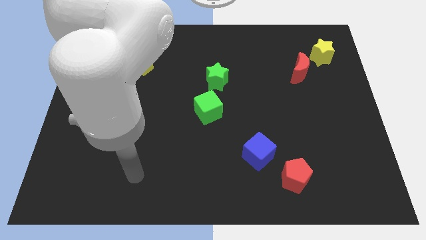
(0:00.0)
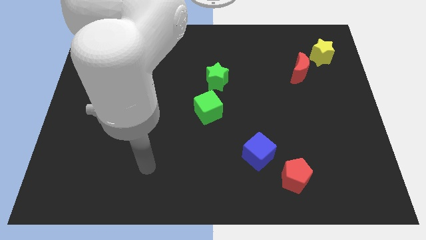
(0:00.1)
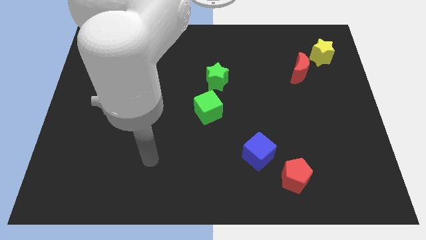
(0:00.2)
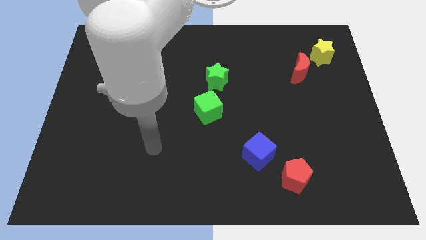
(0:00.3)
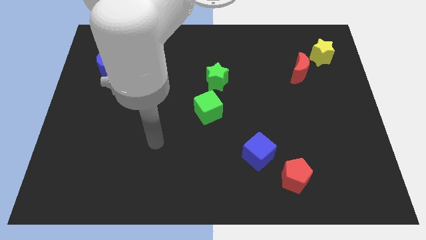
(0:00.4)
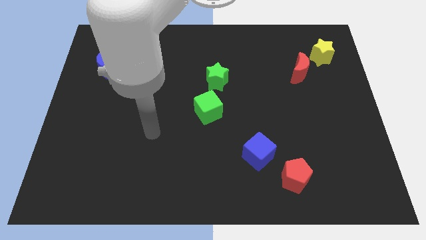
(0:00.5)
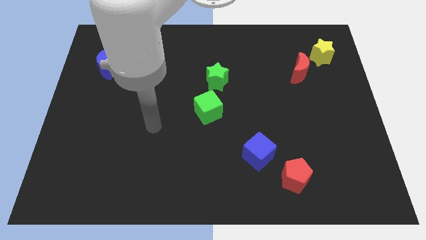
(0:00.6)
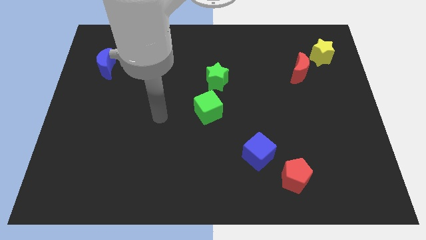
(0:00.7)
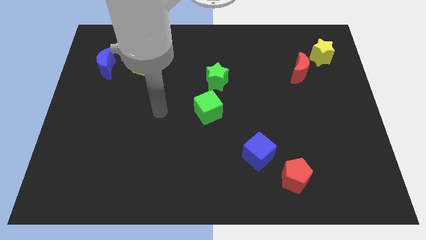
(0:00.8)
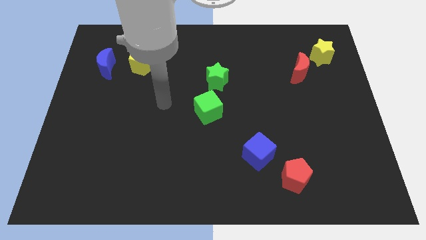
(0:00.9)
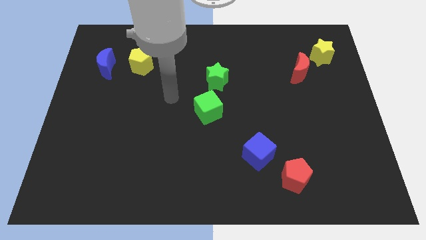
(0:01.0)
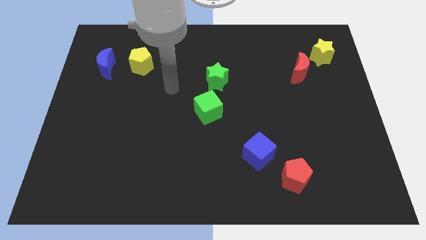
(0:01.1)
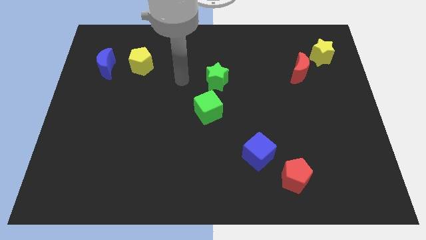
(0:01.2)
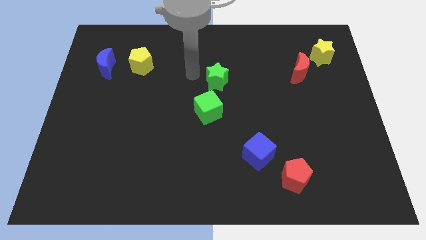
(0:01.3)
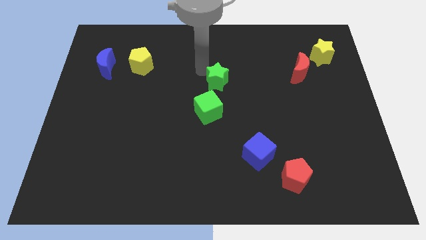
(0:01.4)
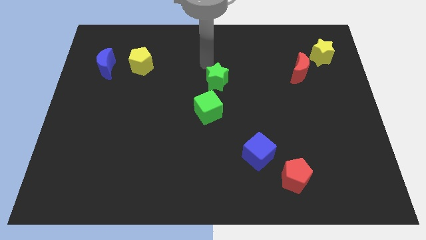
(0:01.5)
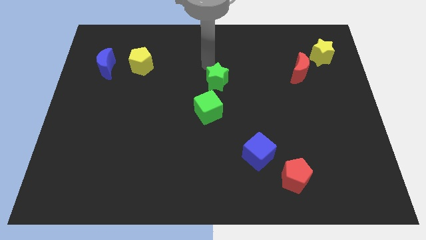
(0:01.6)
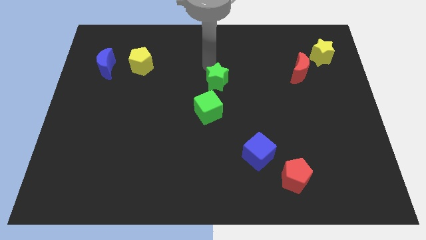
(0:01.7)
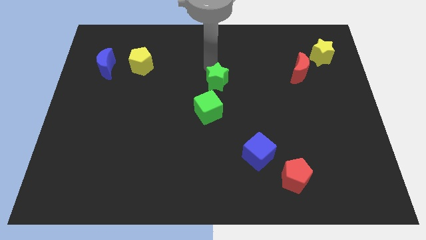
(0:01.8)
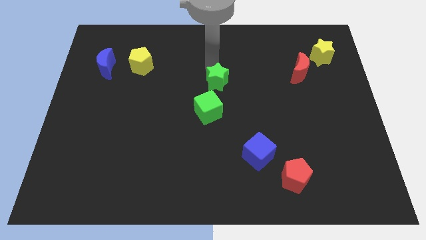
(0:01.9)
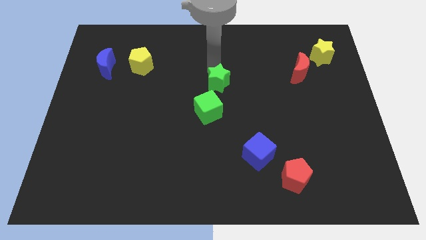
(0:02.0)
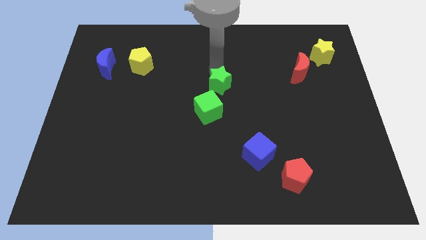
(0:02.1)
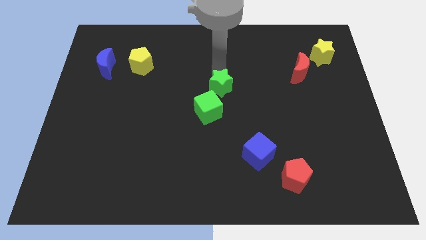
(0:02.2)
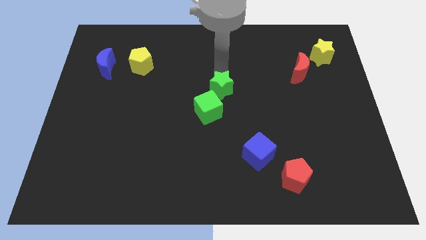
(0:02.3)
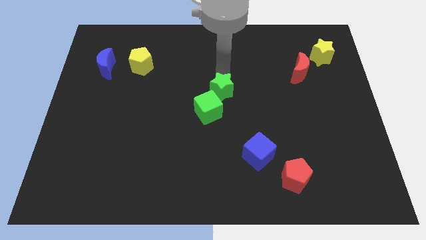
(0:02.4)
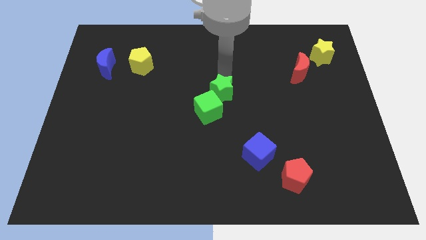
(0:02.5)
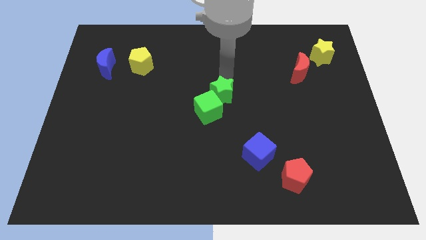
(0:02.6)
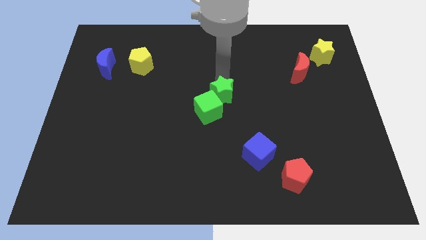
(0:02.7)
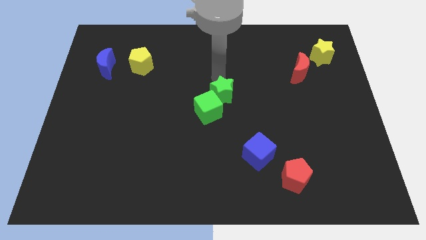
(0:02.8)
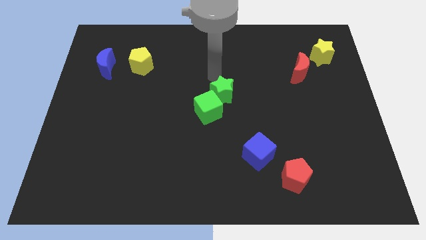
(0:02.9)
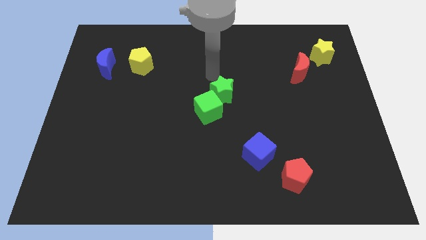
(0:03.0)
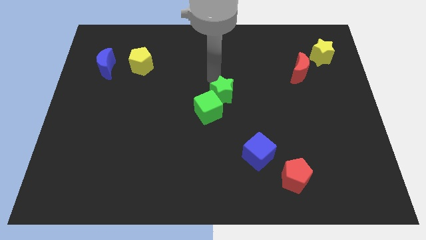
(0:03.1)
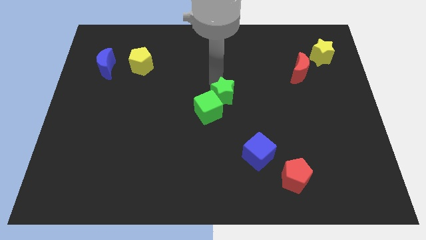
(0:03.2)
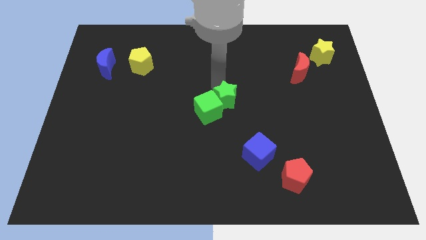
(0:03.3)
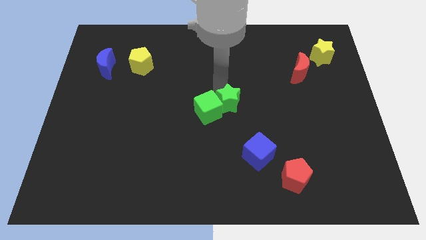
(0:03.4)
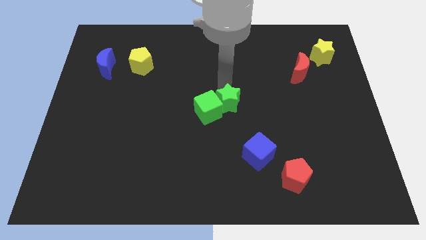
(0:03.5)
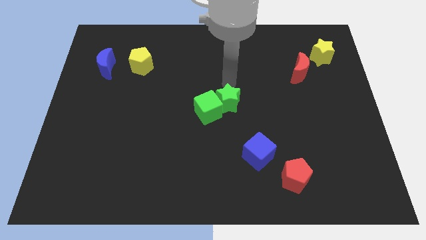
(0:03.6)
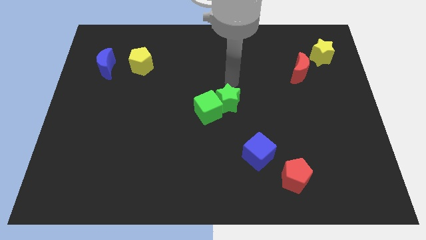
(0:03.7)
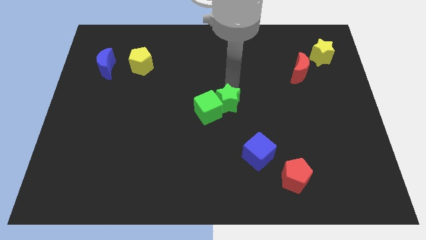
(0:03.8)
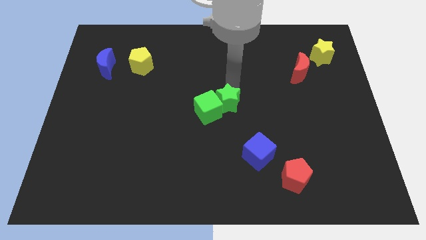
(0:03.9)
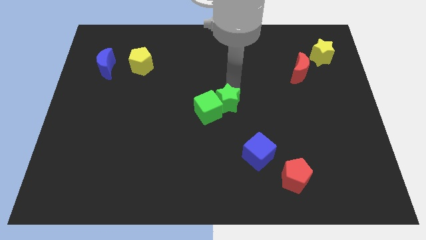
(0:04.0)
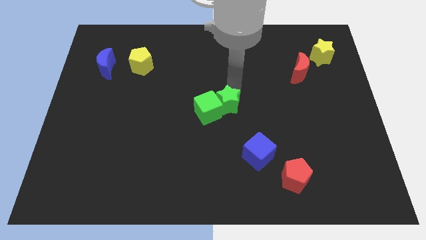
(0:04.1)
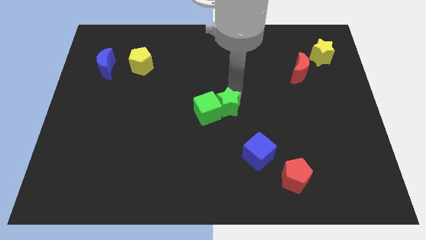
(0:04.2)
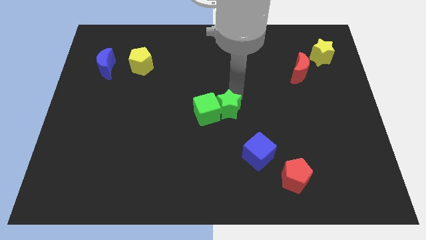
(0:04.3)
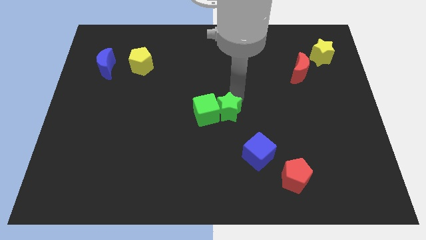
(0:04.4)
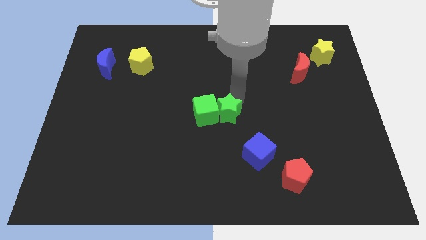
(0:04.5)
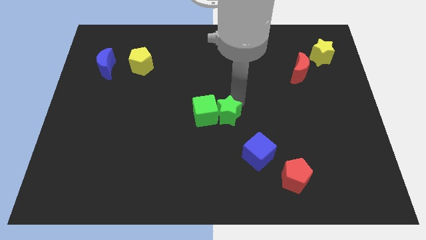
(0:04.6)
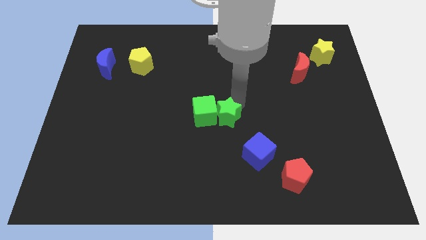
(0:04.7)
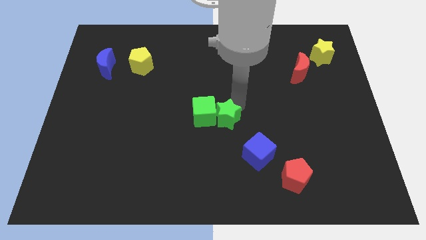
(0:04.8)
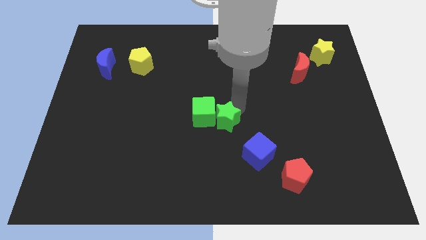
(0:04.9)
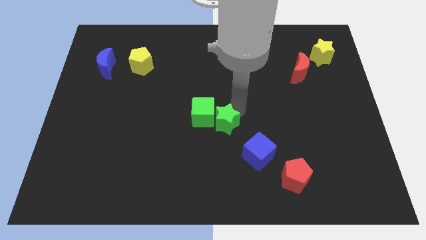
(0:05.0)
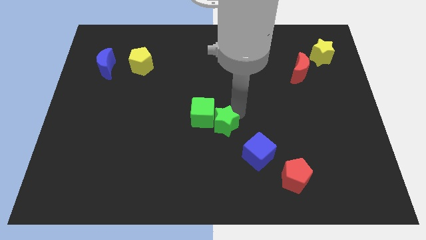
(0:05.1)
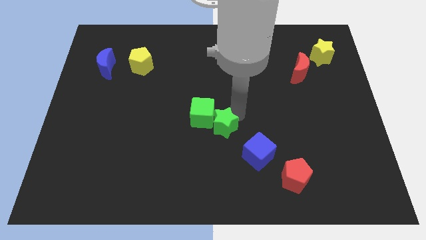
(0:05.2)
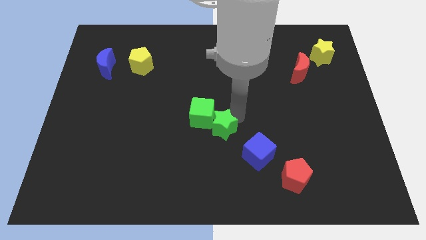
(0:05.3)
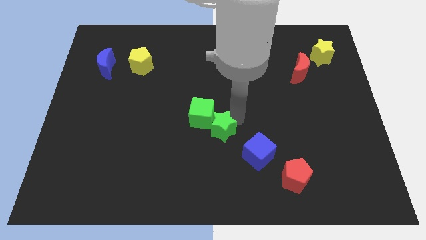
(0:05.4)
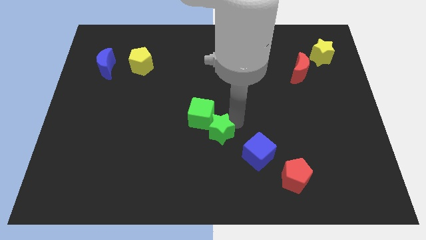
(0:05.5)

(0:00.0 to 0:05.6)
move the green star to the bottom of the green cube

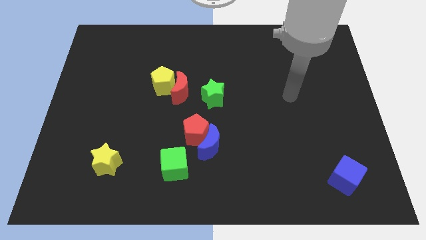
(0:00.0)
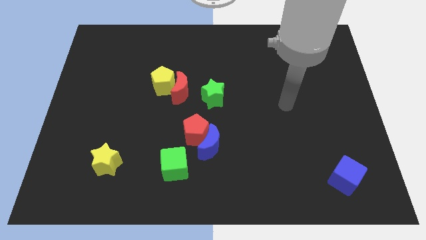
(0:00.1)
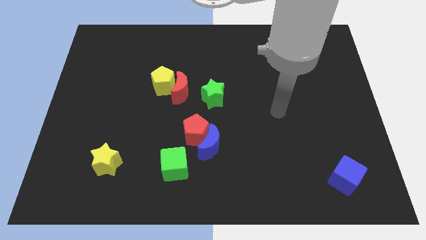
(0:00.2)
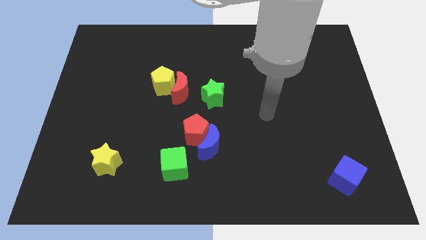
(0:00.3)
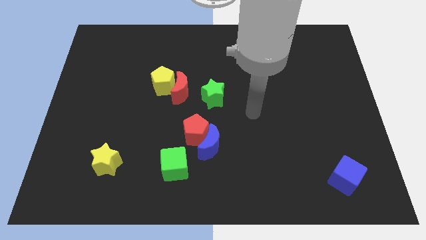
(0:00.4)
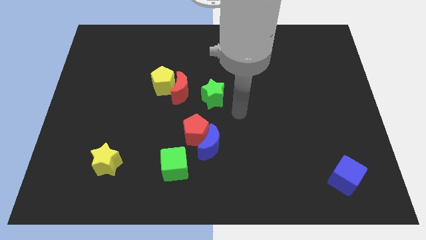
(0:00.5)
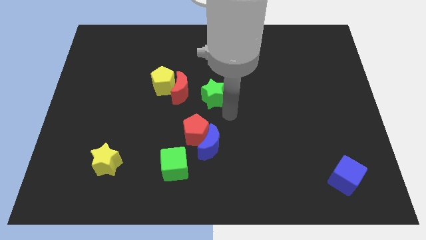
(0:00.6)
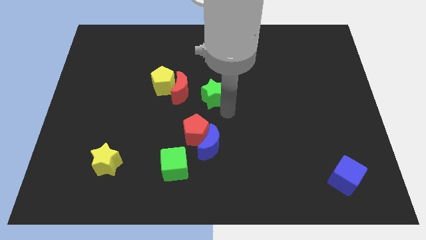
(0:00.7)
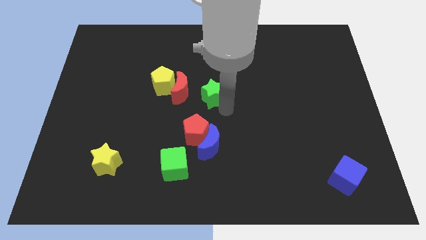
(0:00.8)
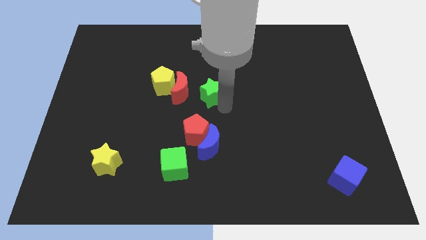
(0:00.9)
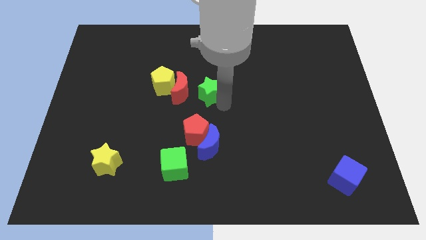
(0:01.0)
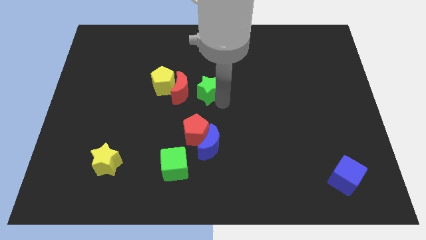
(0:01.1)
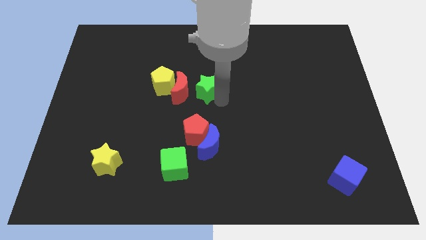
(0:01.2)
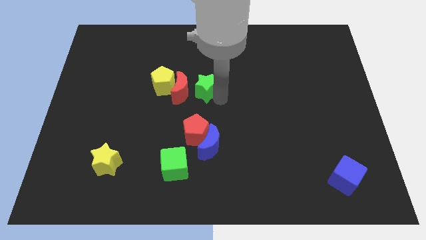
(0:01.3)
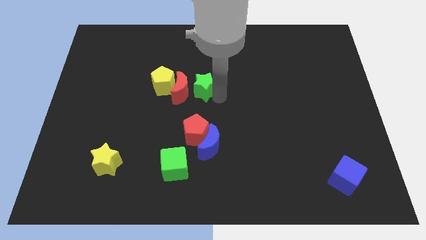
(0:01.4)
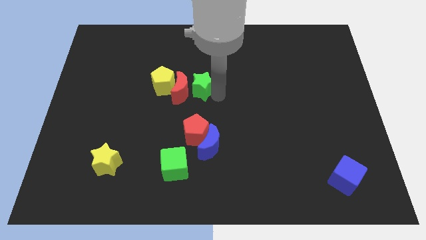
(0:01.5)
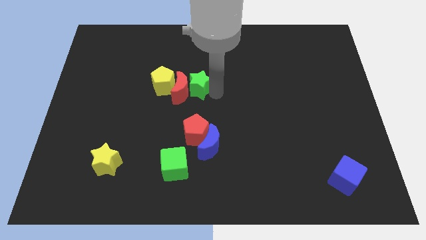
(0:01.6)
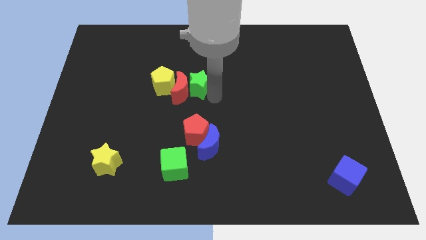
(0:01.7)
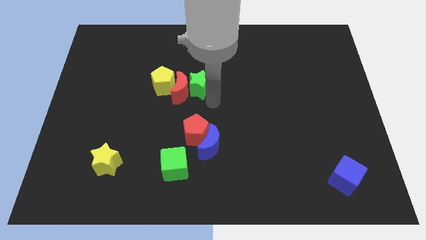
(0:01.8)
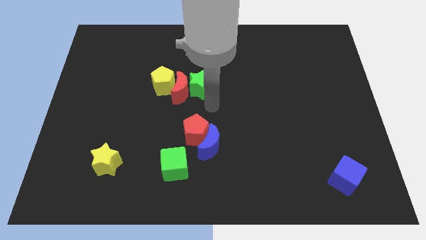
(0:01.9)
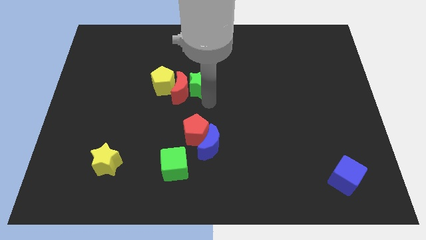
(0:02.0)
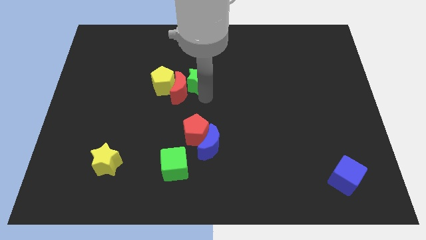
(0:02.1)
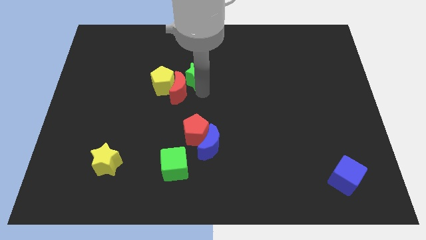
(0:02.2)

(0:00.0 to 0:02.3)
slide the green star to the top right side of the yellow pentagon
